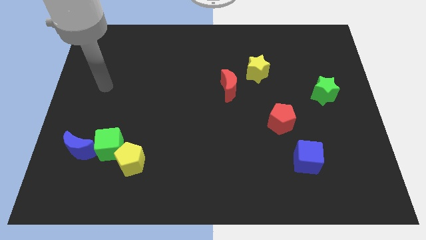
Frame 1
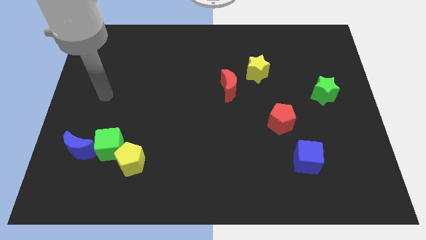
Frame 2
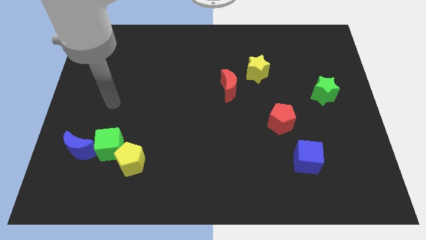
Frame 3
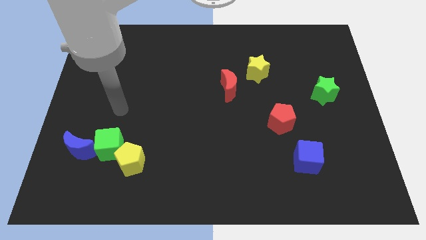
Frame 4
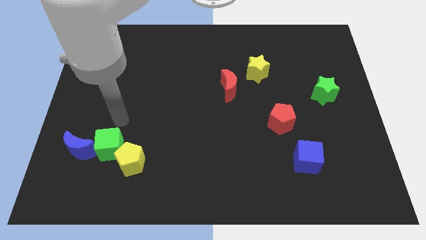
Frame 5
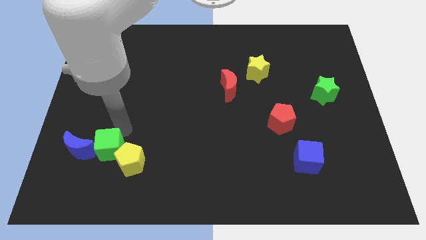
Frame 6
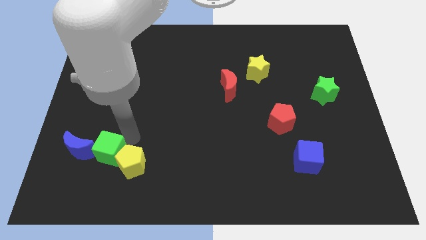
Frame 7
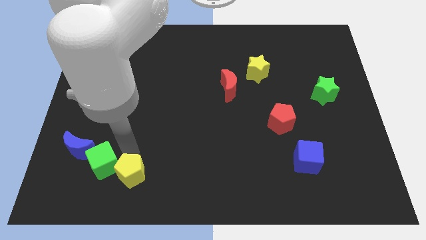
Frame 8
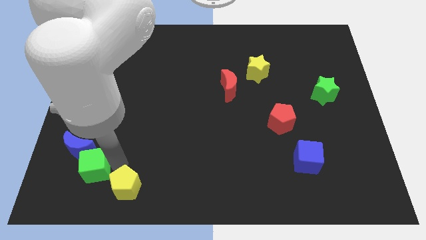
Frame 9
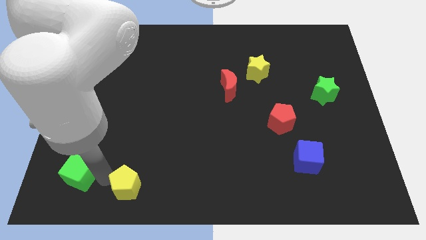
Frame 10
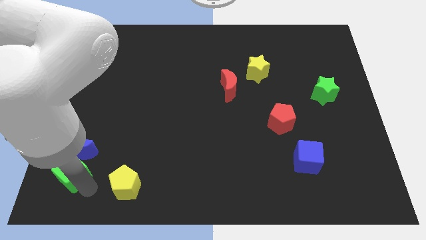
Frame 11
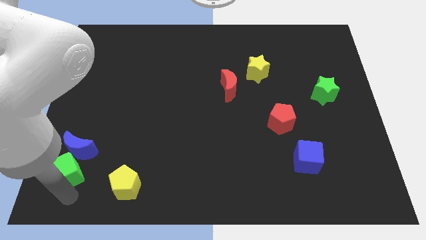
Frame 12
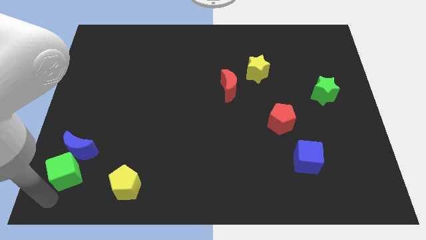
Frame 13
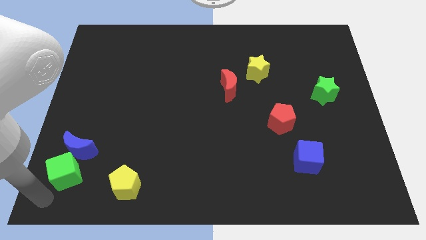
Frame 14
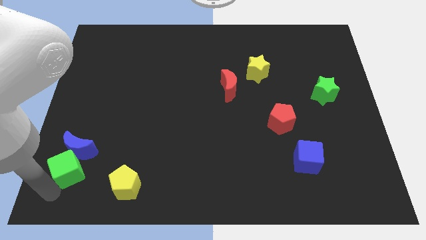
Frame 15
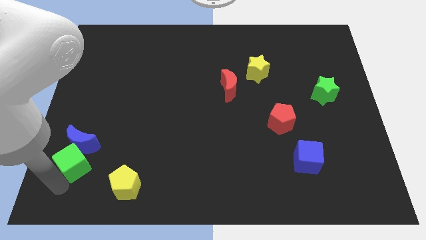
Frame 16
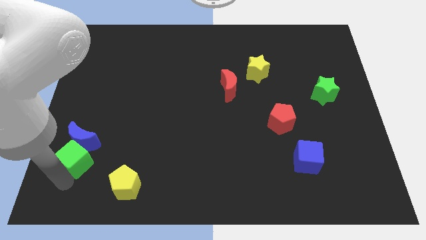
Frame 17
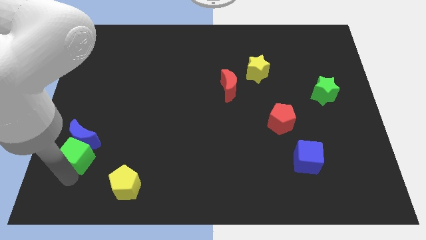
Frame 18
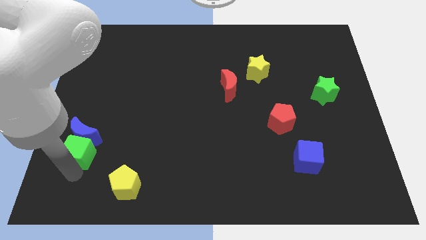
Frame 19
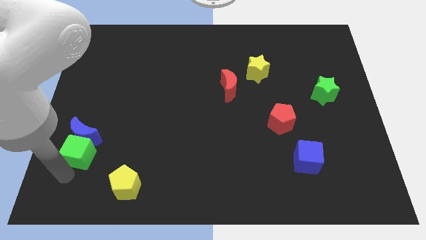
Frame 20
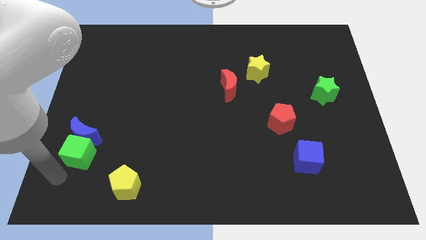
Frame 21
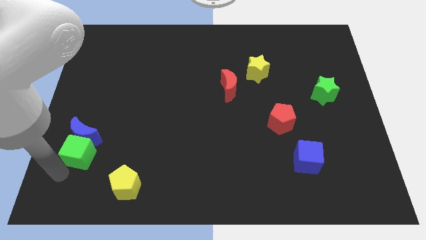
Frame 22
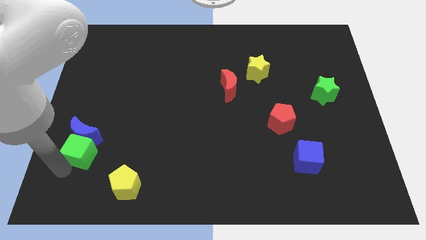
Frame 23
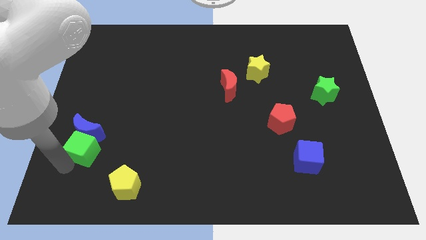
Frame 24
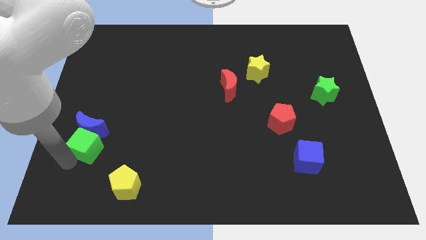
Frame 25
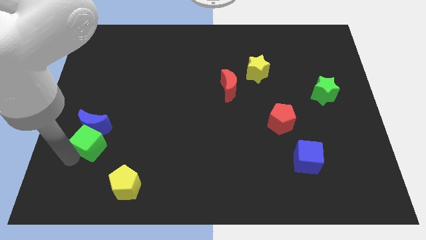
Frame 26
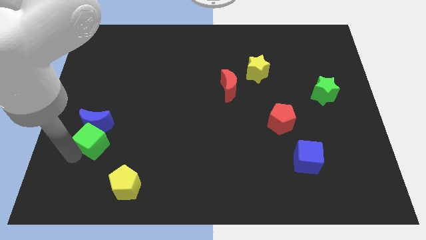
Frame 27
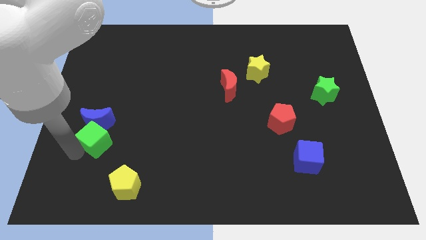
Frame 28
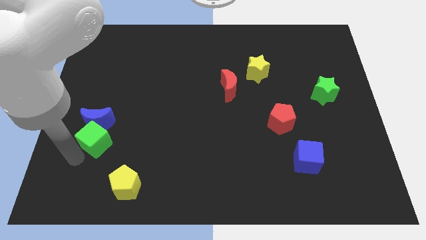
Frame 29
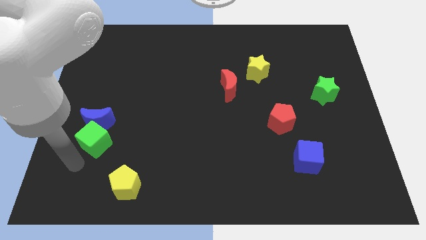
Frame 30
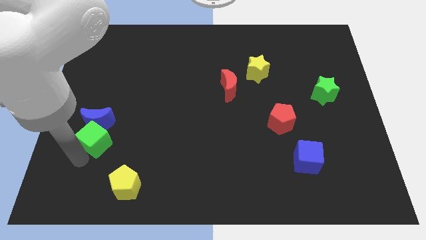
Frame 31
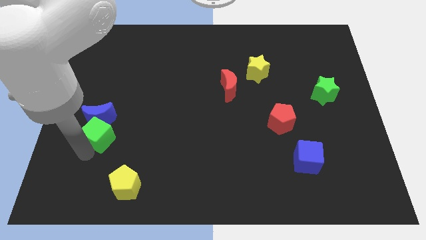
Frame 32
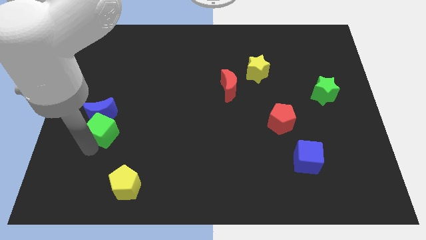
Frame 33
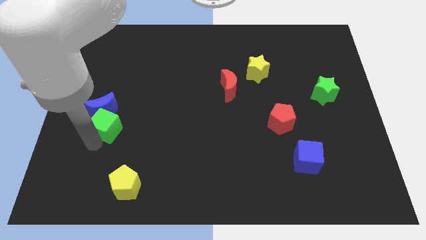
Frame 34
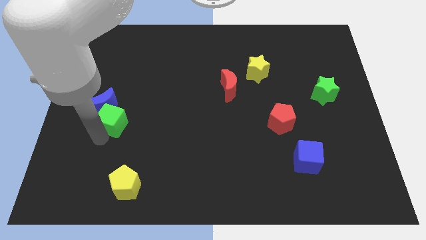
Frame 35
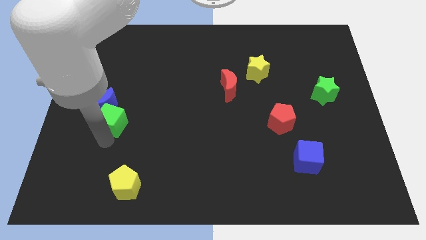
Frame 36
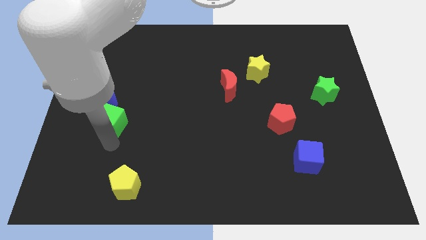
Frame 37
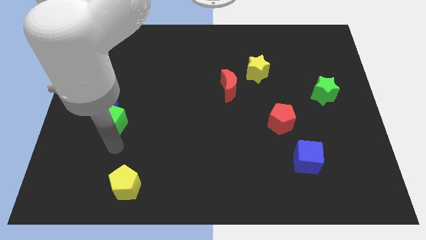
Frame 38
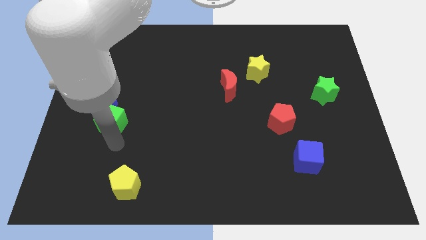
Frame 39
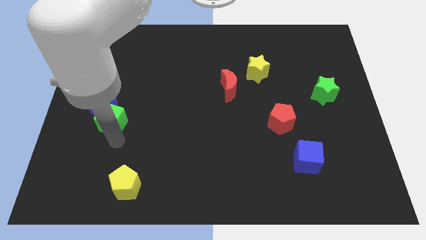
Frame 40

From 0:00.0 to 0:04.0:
slightly move the green cube upwards

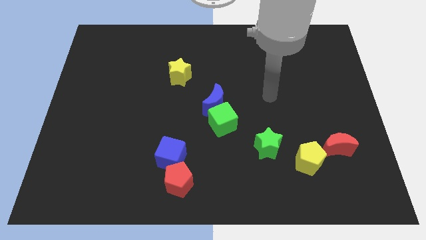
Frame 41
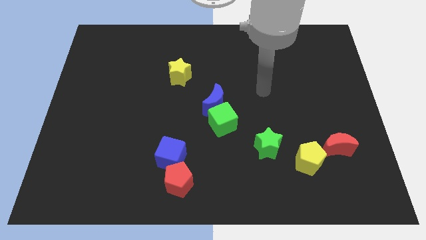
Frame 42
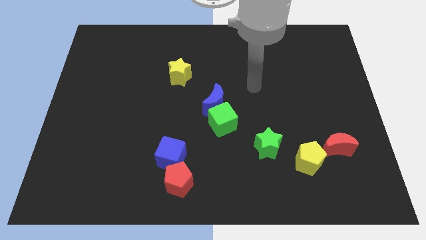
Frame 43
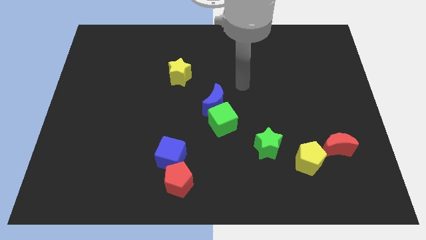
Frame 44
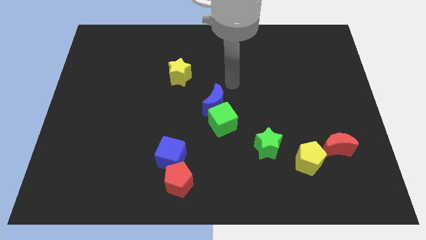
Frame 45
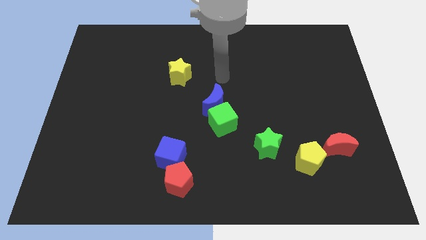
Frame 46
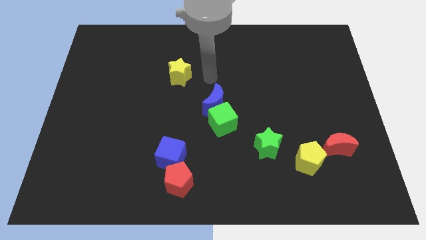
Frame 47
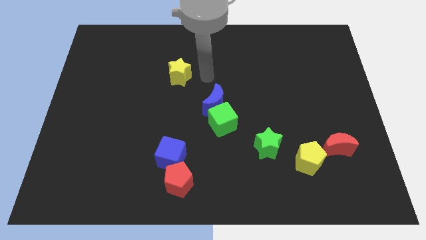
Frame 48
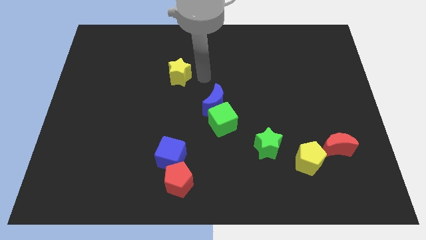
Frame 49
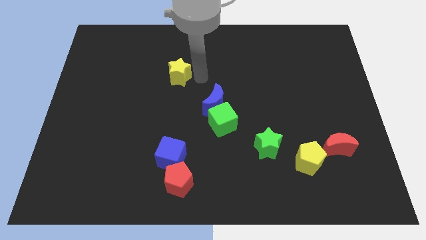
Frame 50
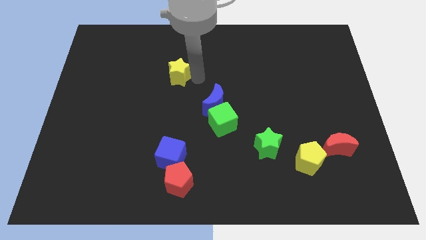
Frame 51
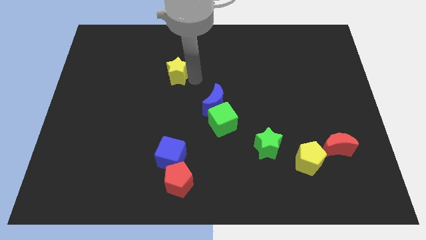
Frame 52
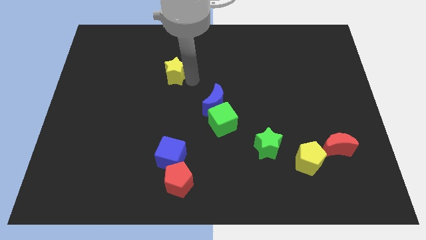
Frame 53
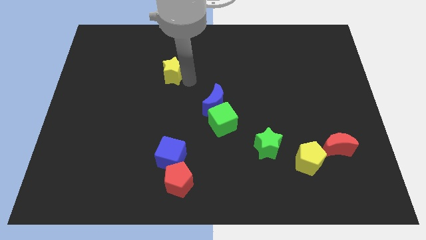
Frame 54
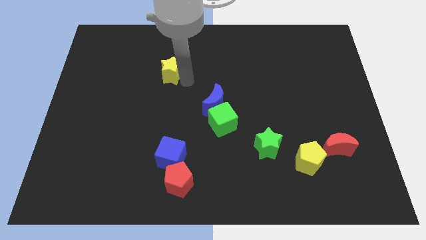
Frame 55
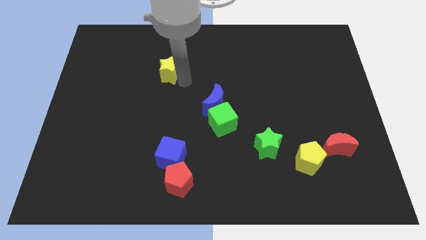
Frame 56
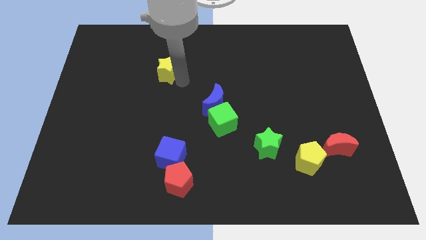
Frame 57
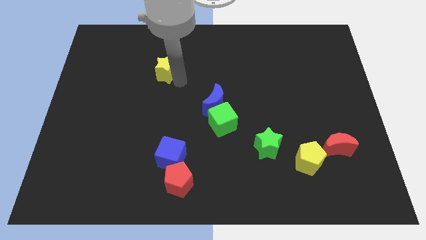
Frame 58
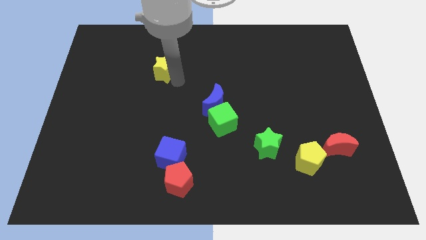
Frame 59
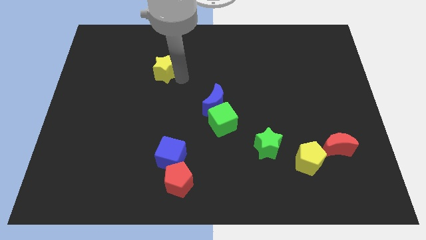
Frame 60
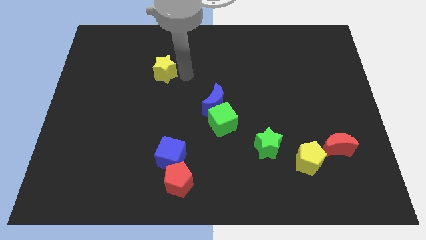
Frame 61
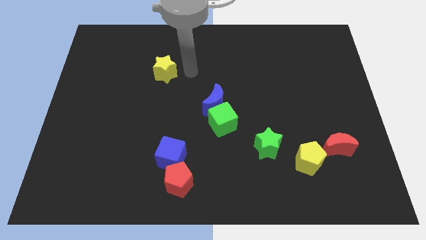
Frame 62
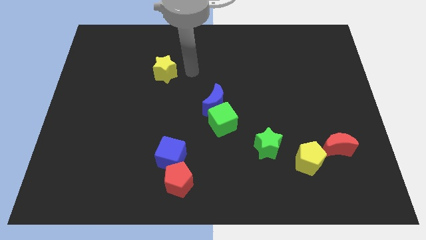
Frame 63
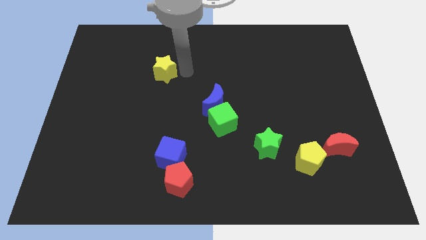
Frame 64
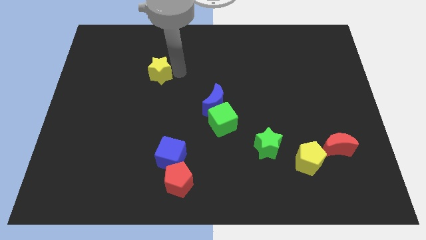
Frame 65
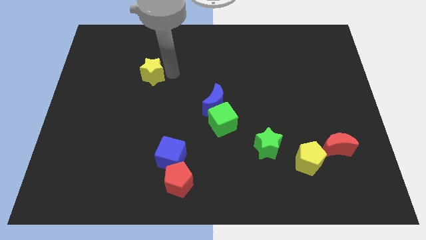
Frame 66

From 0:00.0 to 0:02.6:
move the yellow star somewhat to the left

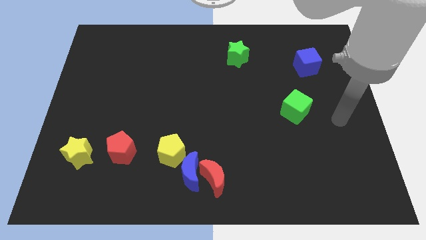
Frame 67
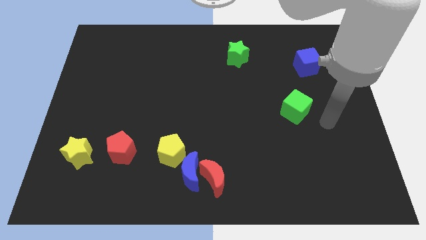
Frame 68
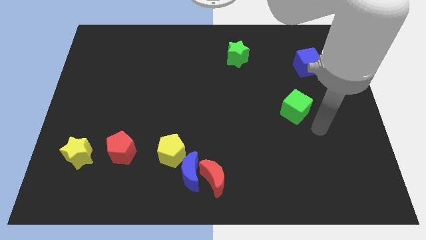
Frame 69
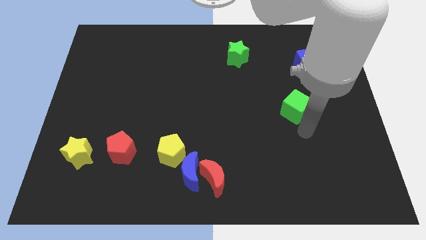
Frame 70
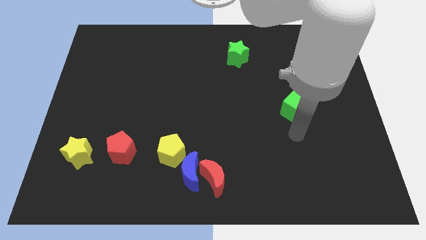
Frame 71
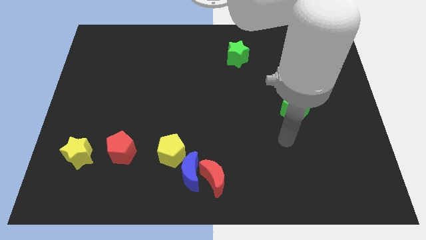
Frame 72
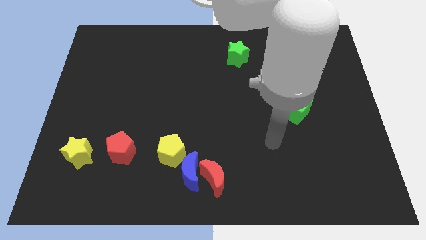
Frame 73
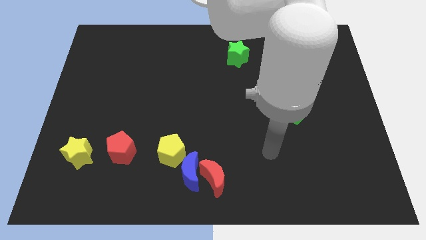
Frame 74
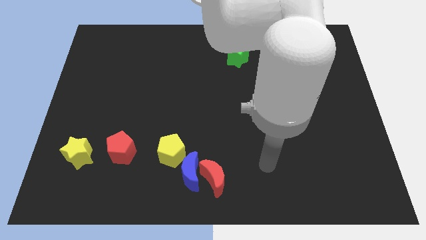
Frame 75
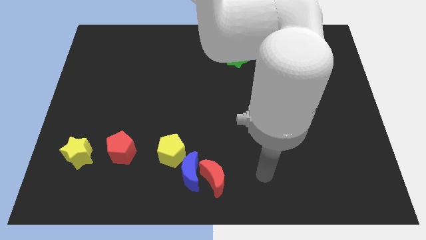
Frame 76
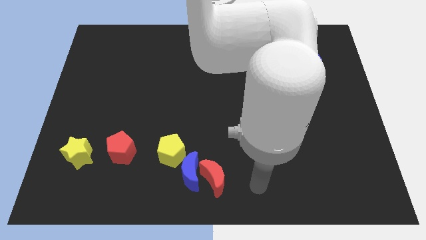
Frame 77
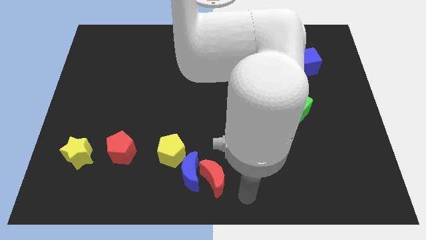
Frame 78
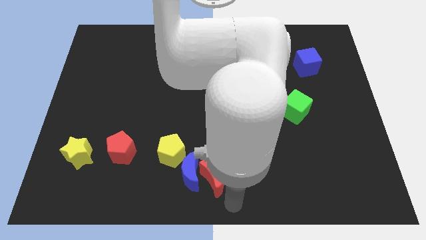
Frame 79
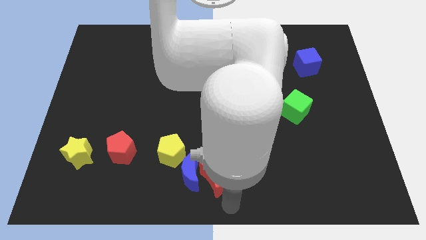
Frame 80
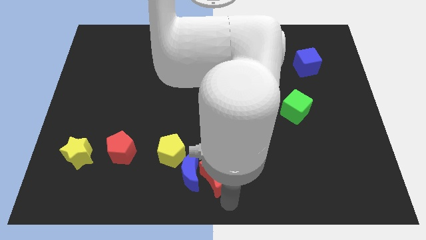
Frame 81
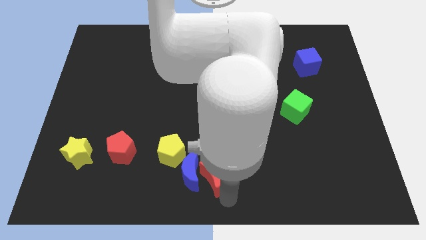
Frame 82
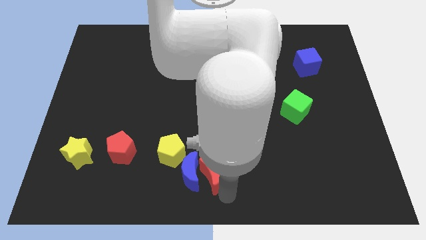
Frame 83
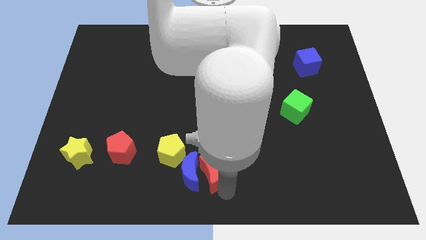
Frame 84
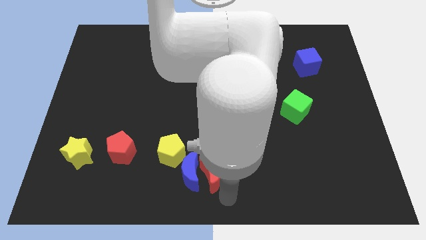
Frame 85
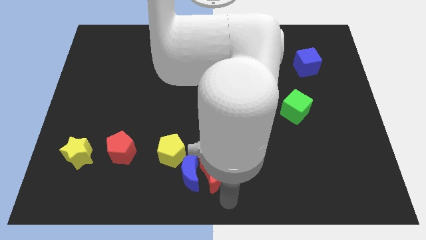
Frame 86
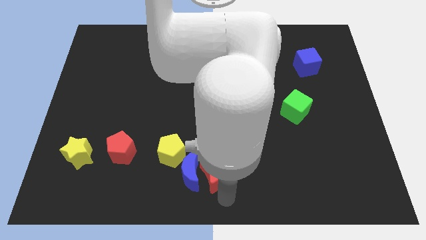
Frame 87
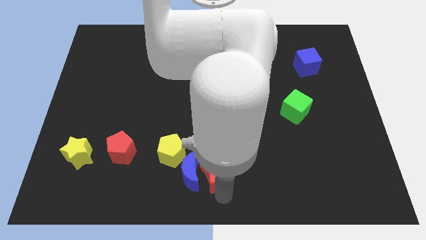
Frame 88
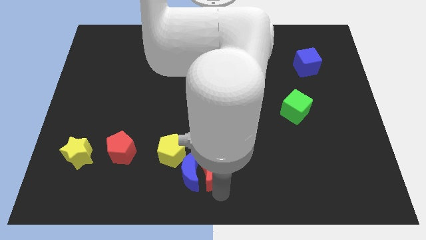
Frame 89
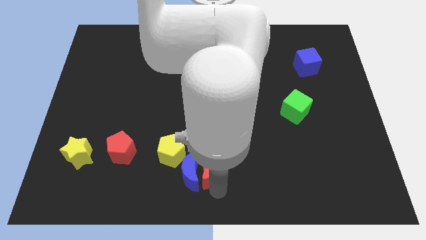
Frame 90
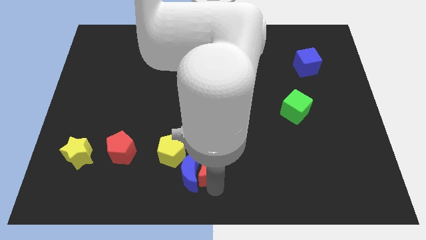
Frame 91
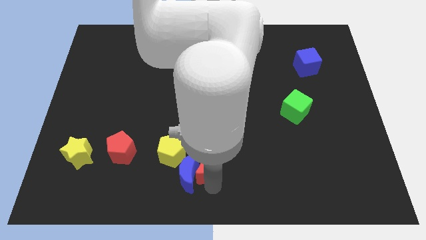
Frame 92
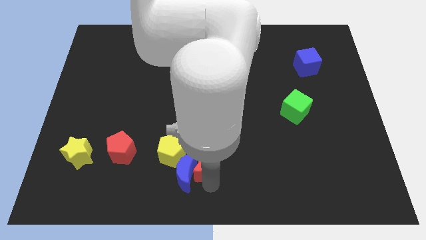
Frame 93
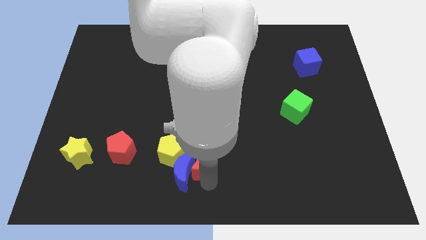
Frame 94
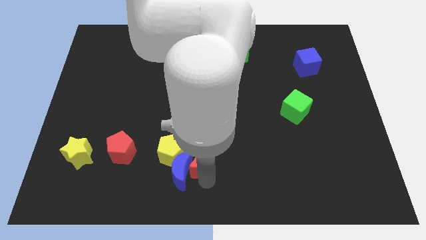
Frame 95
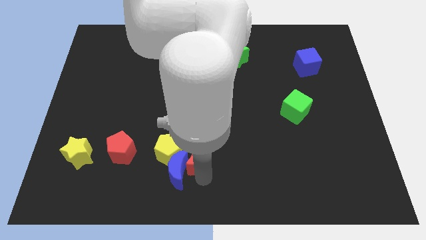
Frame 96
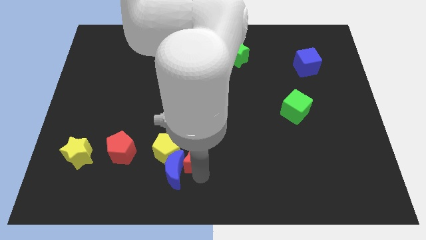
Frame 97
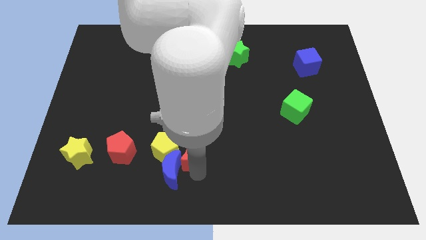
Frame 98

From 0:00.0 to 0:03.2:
slide the red moon upwards and then left slightly
